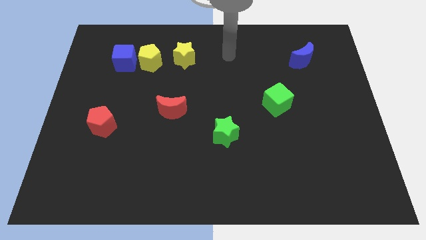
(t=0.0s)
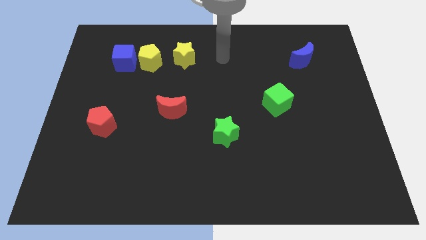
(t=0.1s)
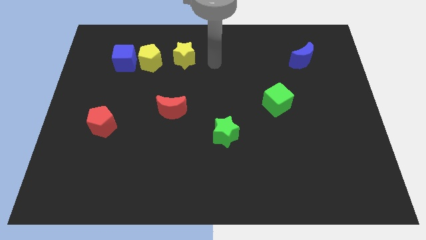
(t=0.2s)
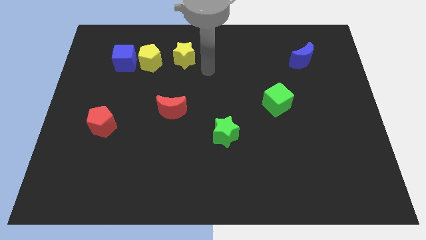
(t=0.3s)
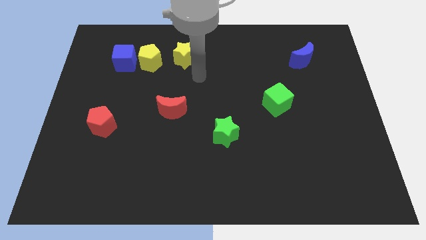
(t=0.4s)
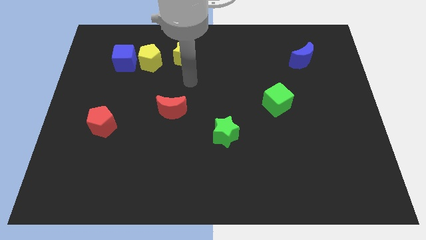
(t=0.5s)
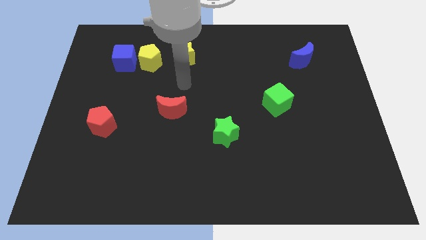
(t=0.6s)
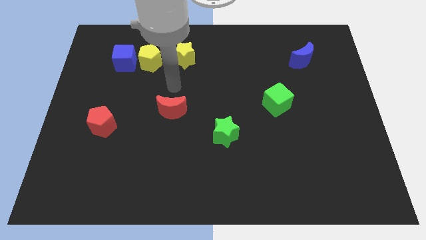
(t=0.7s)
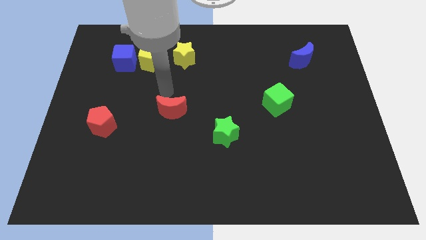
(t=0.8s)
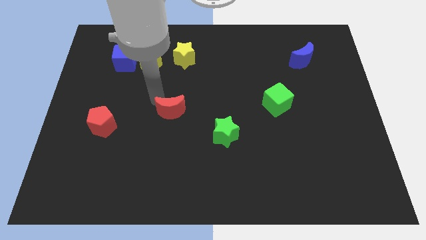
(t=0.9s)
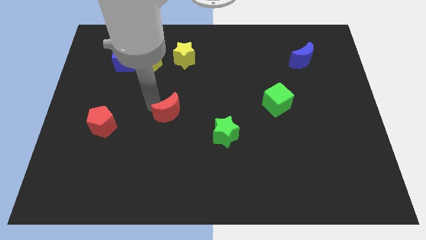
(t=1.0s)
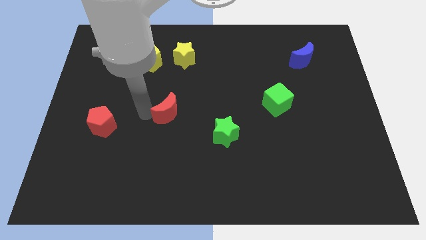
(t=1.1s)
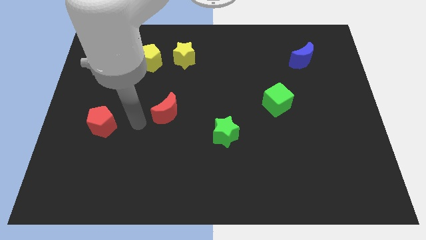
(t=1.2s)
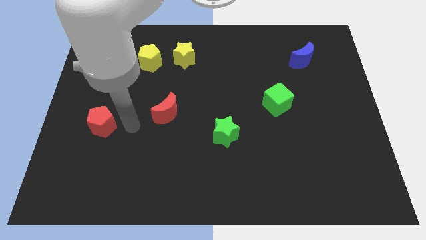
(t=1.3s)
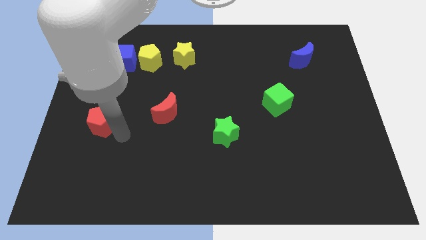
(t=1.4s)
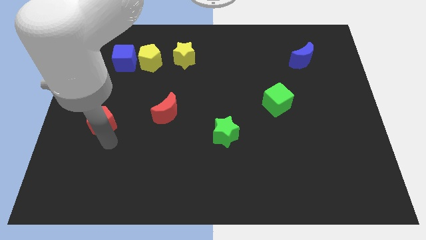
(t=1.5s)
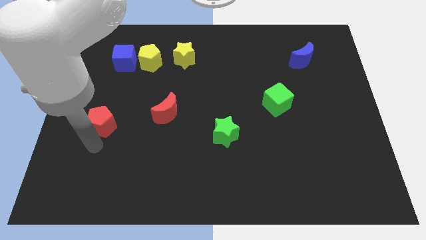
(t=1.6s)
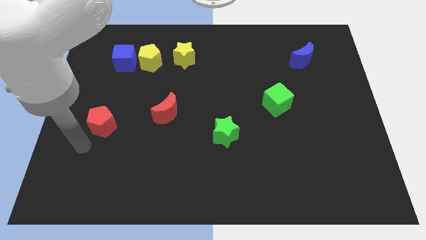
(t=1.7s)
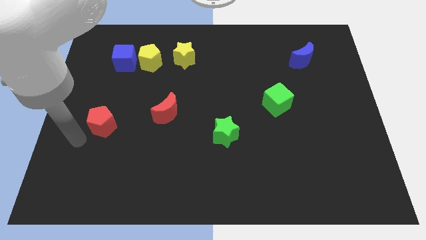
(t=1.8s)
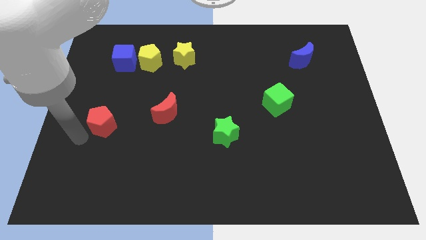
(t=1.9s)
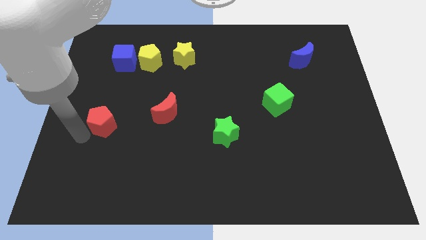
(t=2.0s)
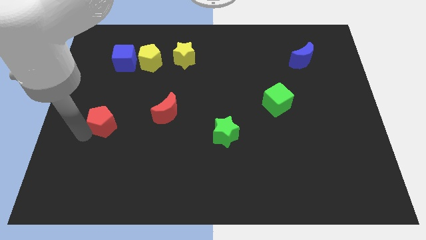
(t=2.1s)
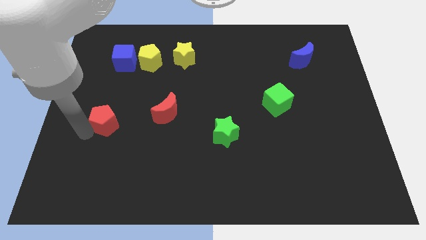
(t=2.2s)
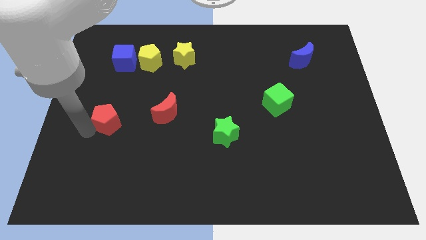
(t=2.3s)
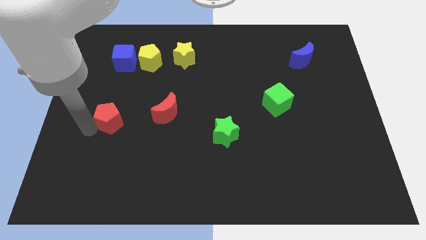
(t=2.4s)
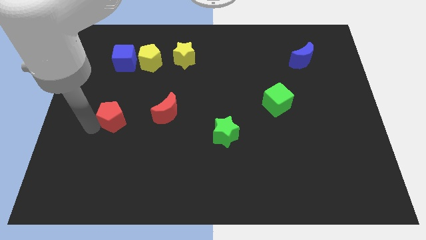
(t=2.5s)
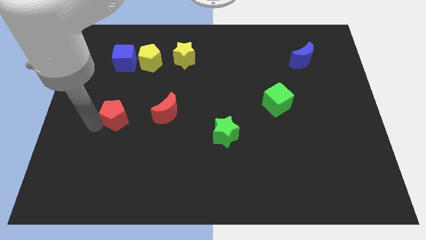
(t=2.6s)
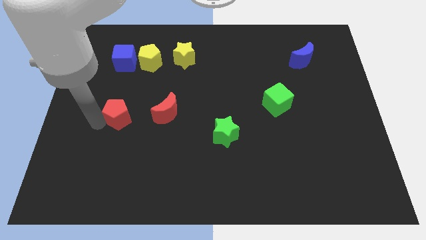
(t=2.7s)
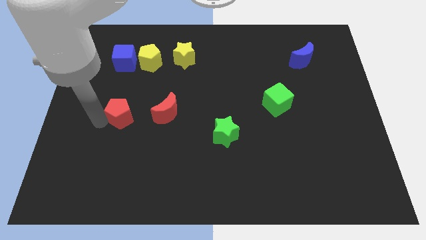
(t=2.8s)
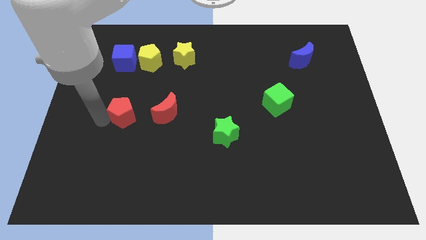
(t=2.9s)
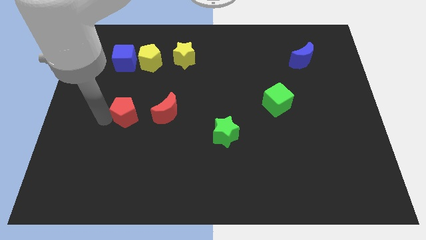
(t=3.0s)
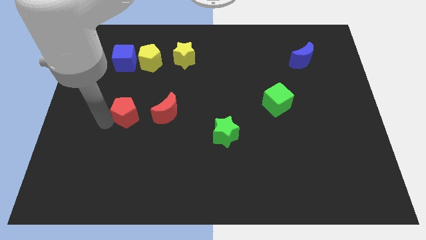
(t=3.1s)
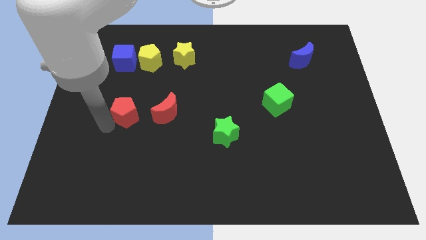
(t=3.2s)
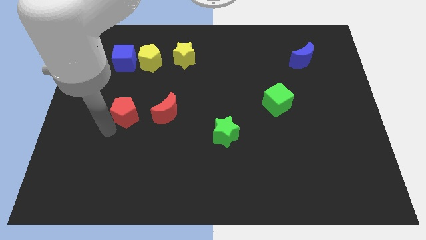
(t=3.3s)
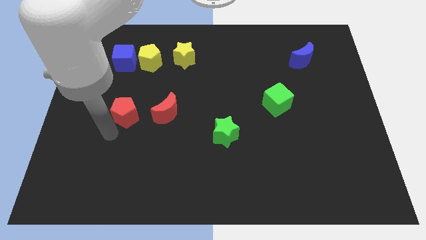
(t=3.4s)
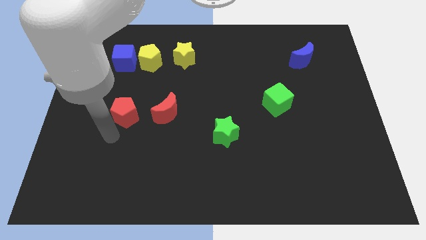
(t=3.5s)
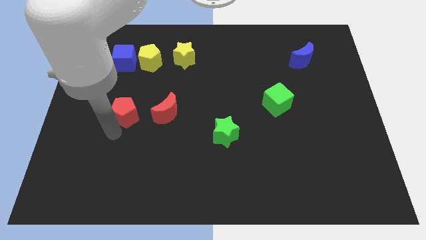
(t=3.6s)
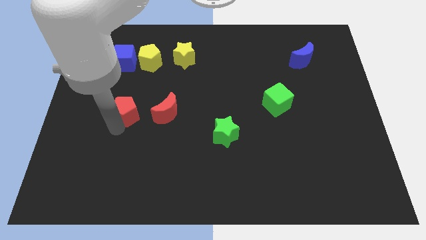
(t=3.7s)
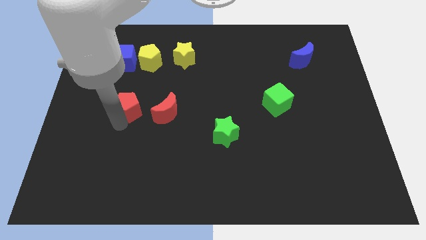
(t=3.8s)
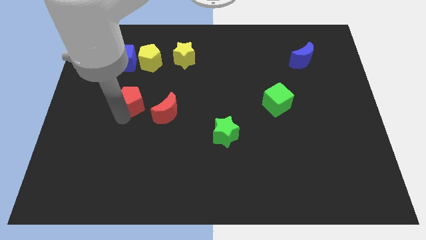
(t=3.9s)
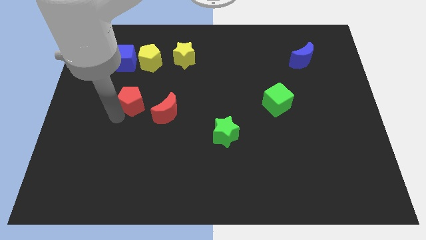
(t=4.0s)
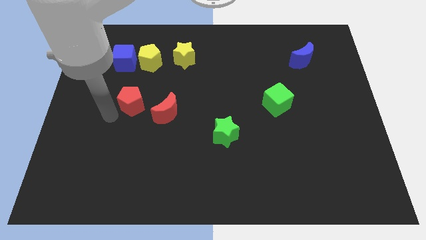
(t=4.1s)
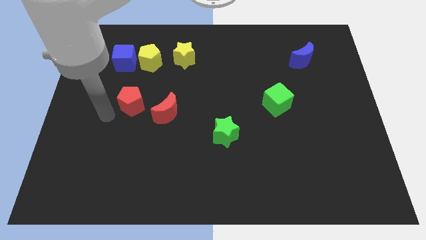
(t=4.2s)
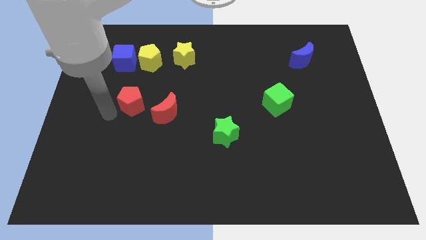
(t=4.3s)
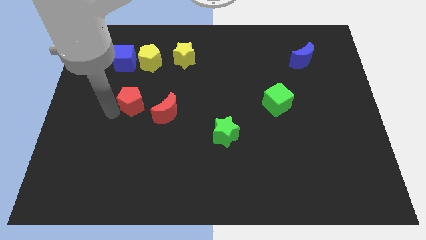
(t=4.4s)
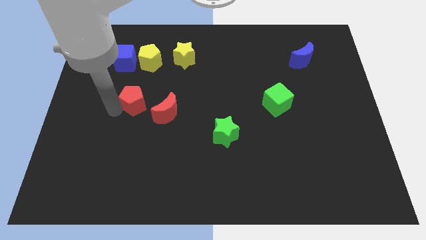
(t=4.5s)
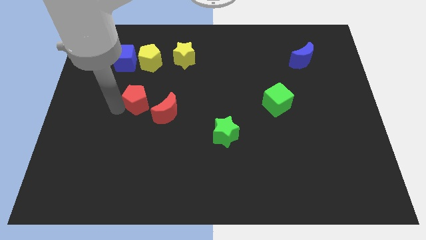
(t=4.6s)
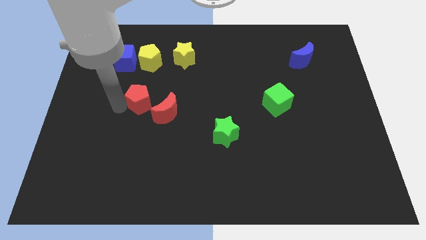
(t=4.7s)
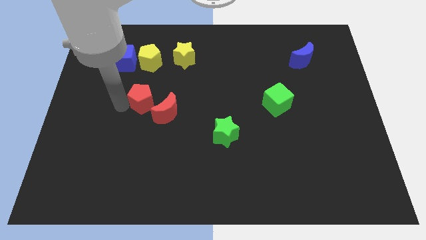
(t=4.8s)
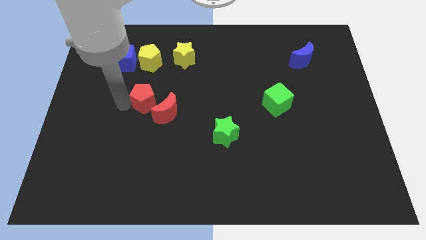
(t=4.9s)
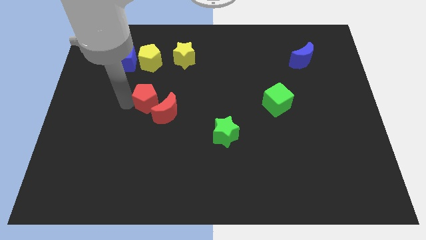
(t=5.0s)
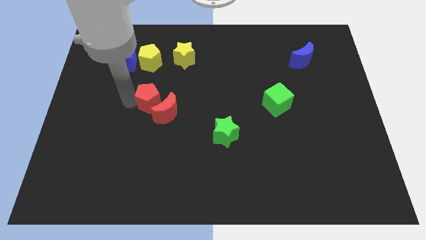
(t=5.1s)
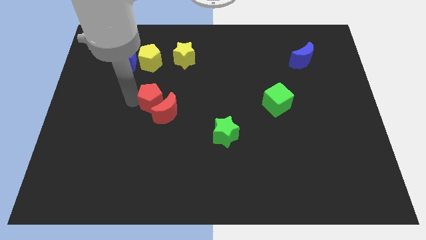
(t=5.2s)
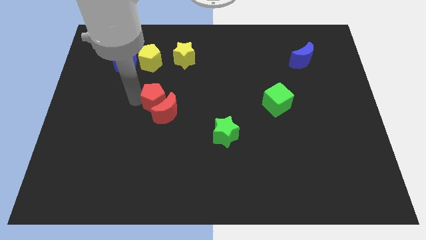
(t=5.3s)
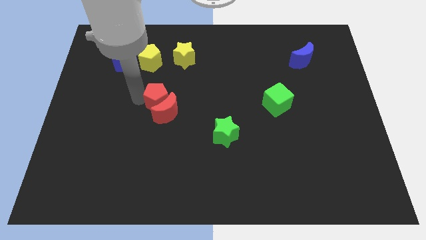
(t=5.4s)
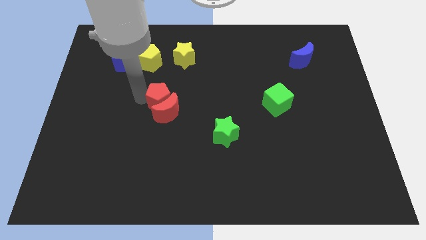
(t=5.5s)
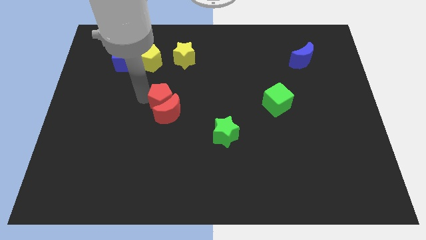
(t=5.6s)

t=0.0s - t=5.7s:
put the red pentagon to the center

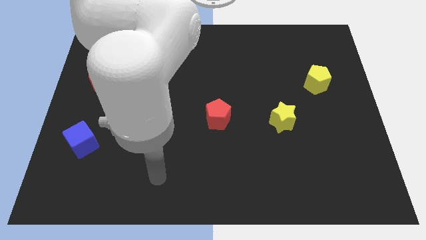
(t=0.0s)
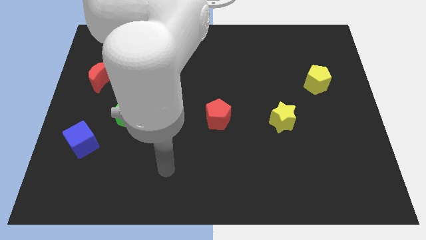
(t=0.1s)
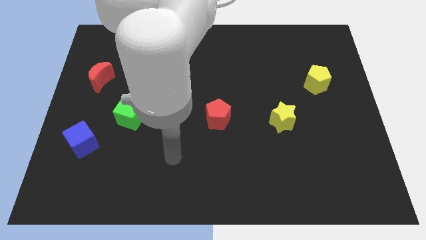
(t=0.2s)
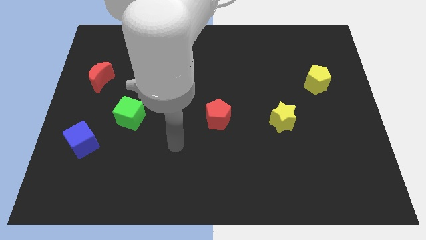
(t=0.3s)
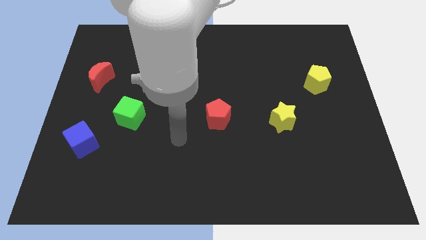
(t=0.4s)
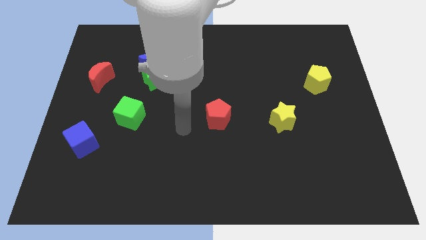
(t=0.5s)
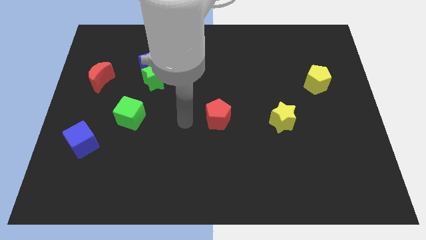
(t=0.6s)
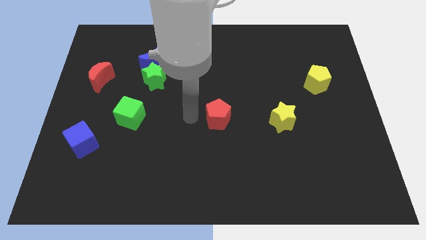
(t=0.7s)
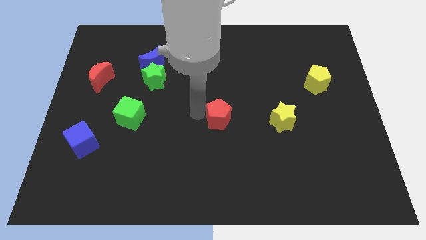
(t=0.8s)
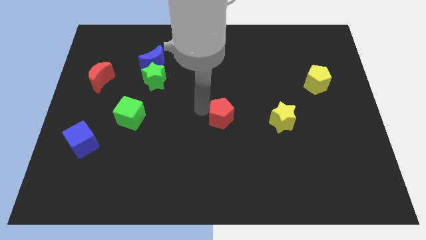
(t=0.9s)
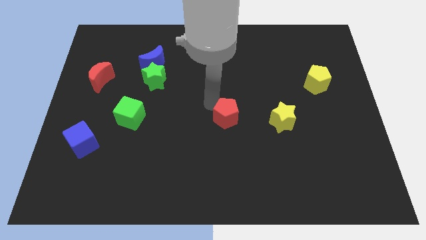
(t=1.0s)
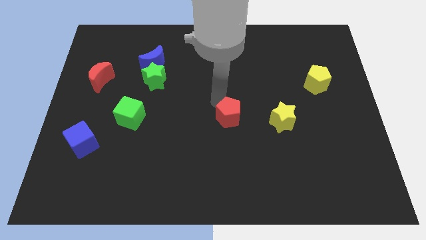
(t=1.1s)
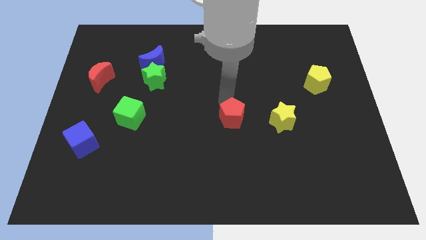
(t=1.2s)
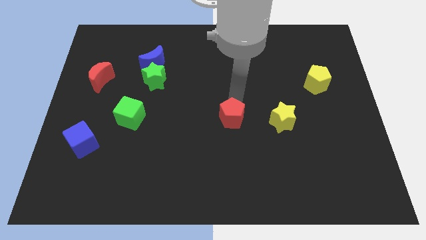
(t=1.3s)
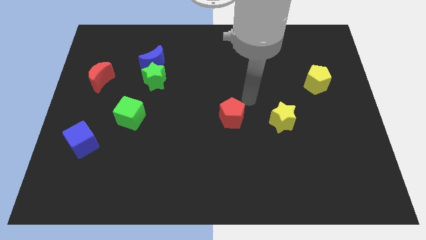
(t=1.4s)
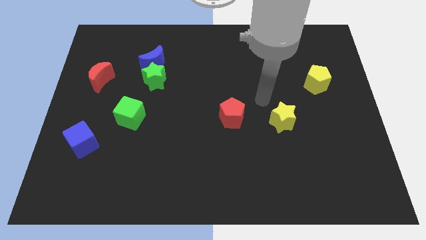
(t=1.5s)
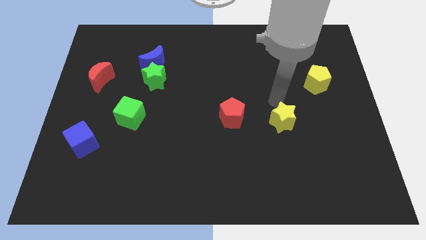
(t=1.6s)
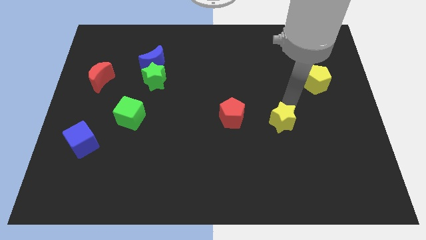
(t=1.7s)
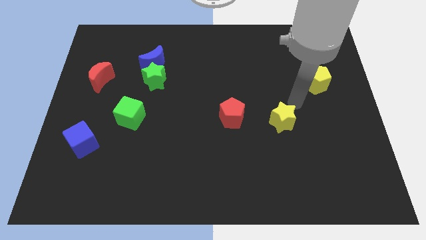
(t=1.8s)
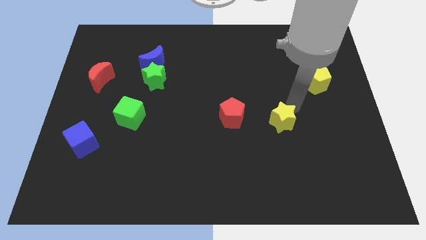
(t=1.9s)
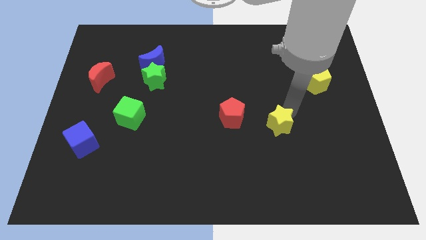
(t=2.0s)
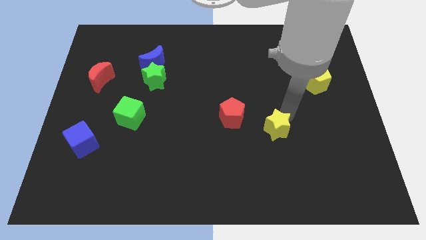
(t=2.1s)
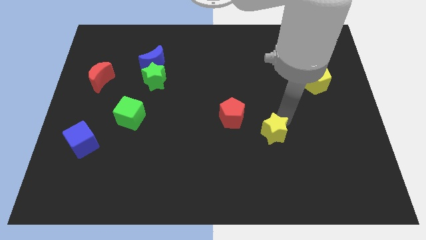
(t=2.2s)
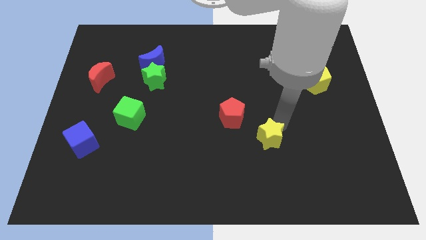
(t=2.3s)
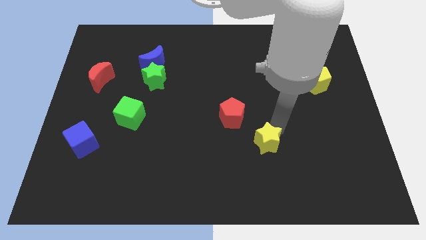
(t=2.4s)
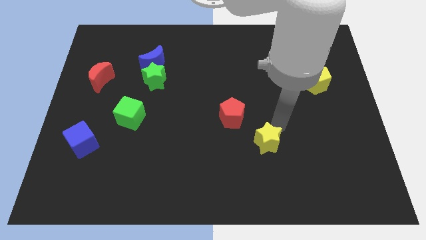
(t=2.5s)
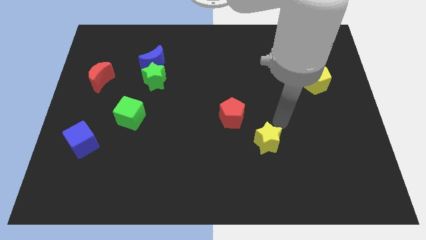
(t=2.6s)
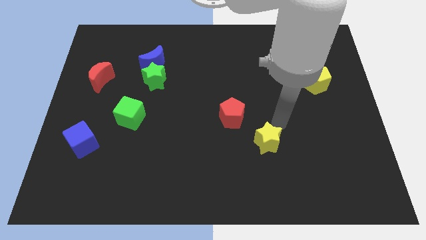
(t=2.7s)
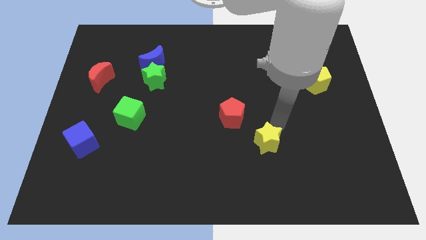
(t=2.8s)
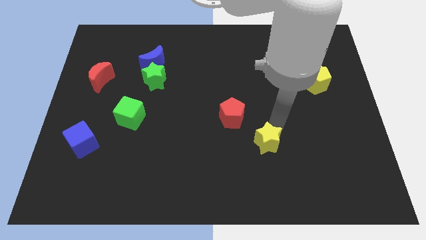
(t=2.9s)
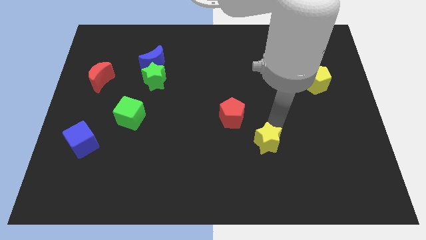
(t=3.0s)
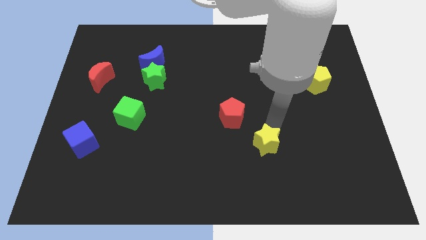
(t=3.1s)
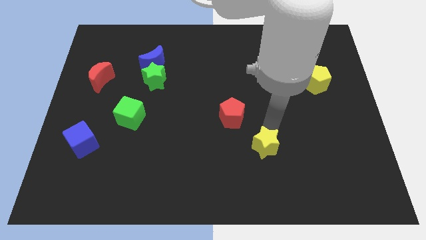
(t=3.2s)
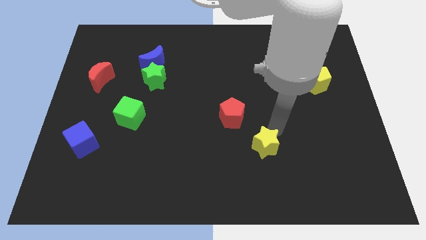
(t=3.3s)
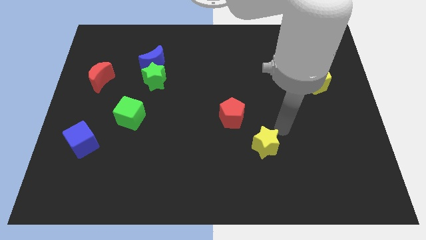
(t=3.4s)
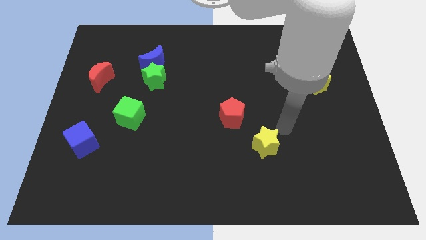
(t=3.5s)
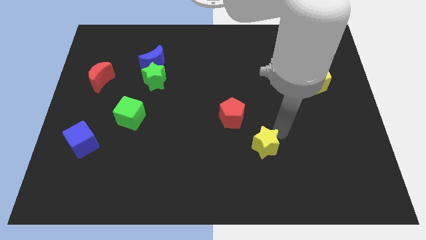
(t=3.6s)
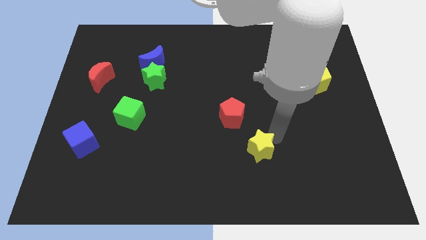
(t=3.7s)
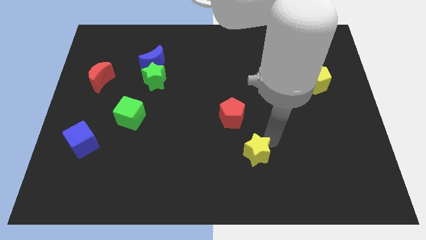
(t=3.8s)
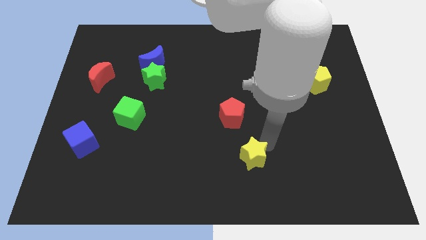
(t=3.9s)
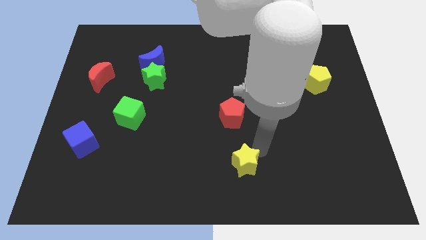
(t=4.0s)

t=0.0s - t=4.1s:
slide the yellow star to the bottom side
